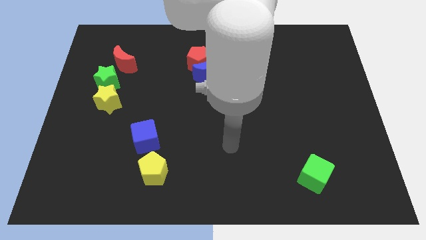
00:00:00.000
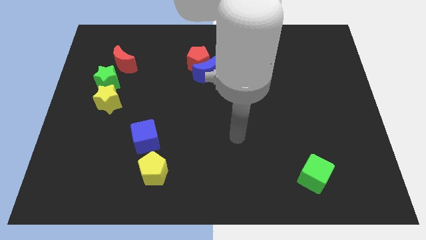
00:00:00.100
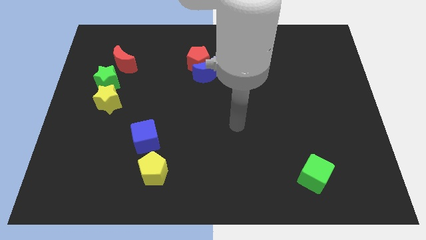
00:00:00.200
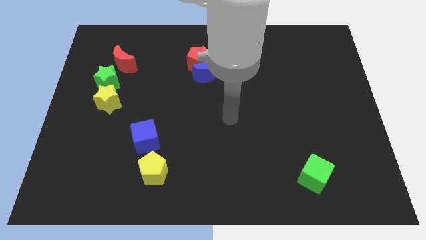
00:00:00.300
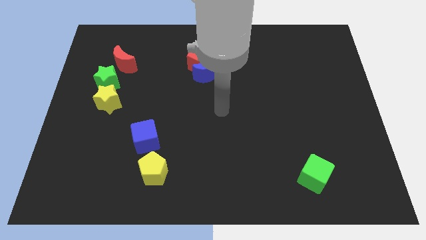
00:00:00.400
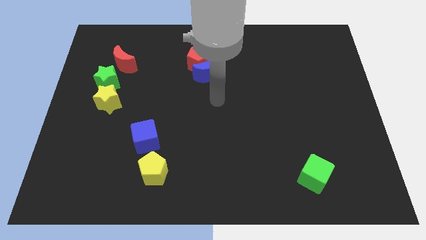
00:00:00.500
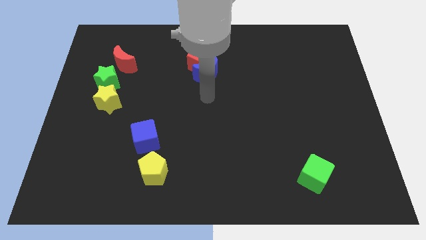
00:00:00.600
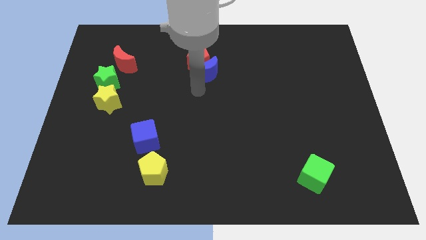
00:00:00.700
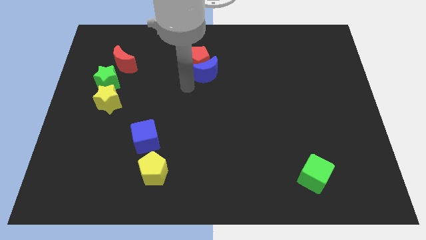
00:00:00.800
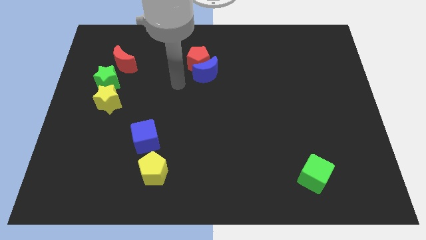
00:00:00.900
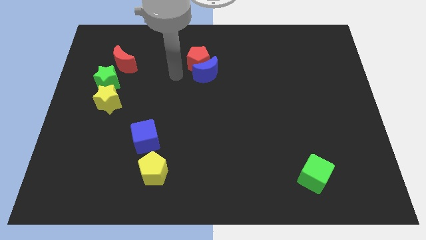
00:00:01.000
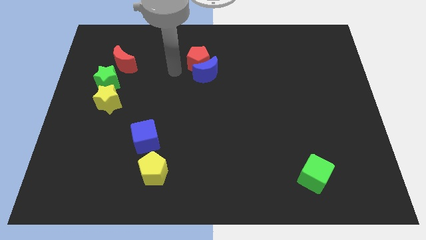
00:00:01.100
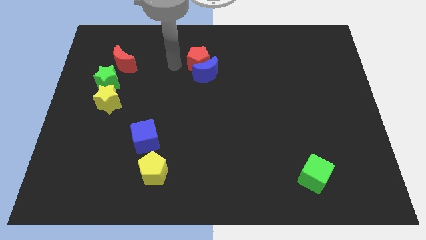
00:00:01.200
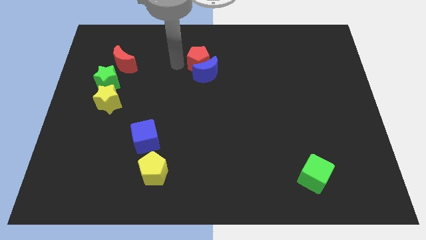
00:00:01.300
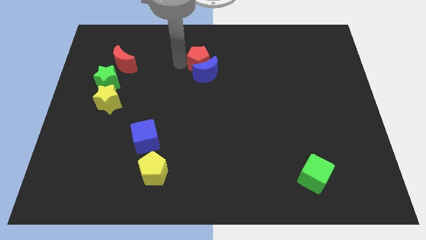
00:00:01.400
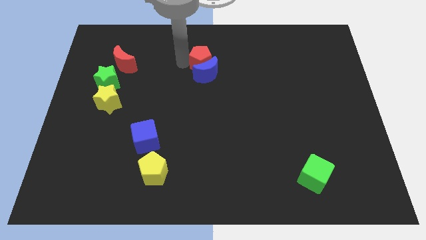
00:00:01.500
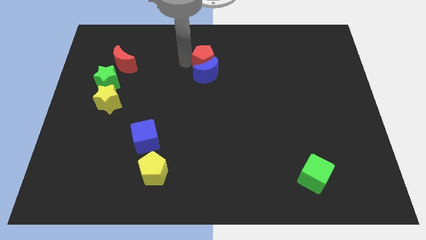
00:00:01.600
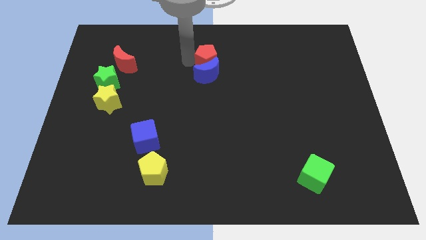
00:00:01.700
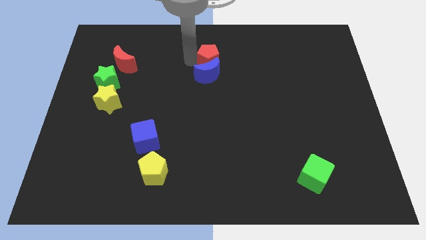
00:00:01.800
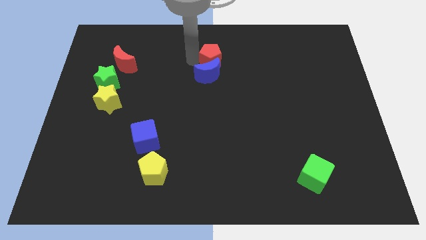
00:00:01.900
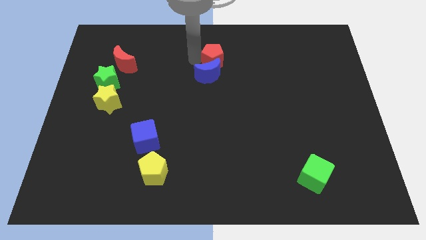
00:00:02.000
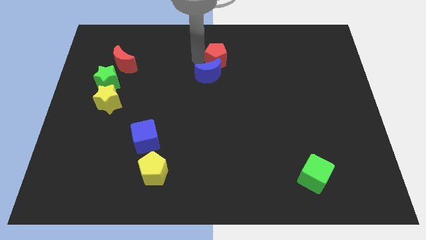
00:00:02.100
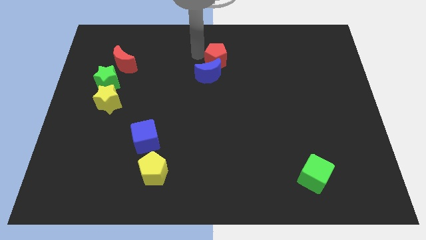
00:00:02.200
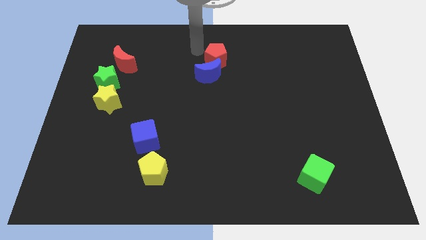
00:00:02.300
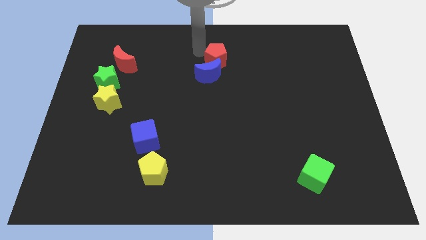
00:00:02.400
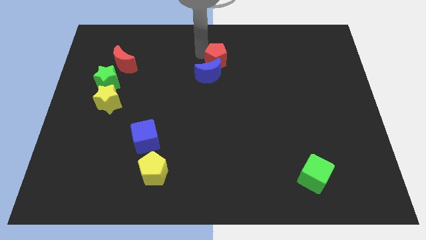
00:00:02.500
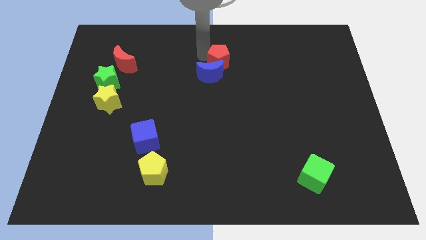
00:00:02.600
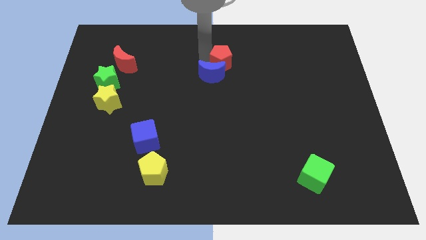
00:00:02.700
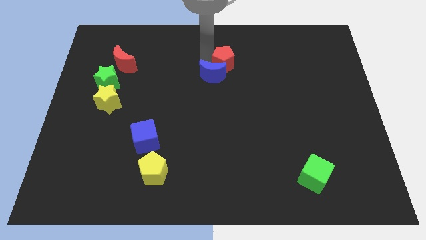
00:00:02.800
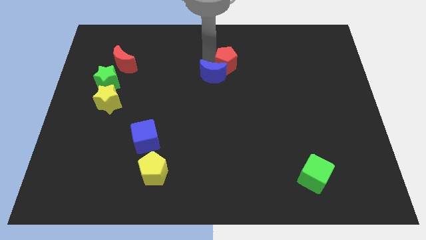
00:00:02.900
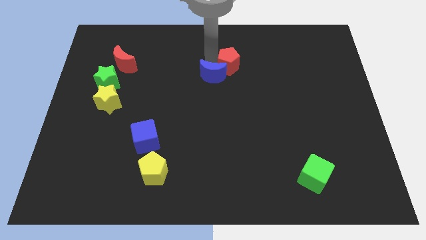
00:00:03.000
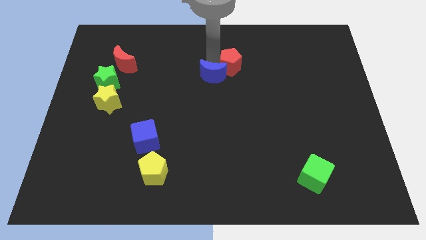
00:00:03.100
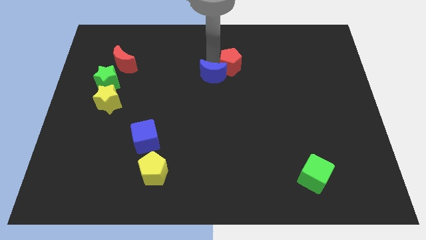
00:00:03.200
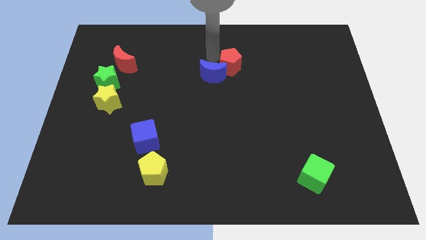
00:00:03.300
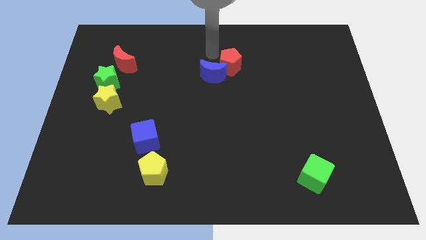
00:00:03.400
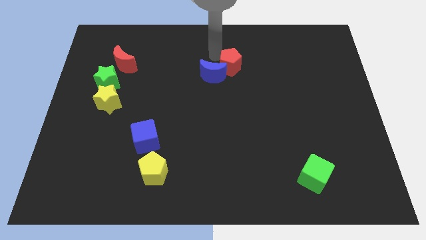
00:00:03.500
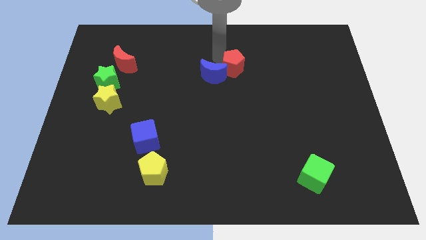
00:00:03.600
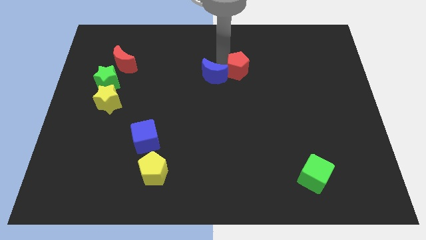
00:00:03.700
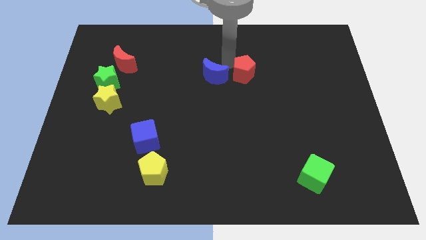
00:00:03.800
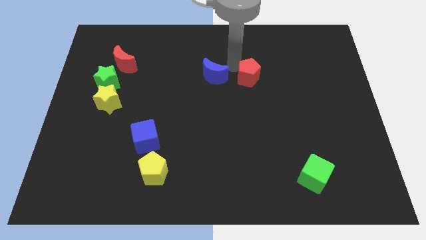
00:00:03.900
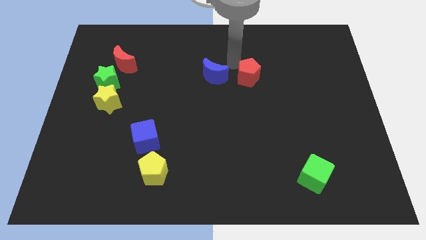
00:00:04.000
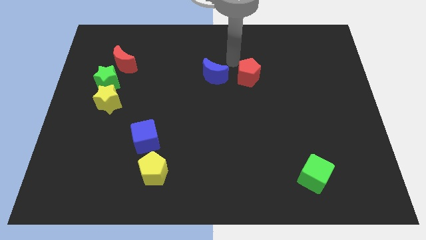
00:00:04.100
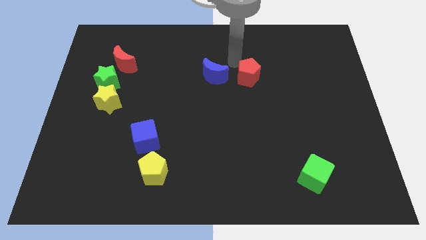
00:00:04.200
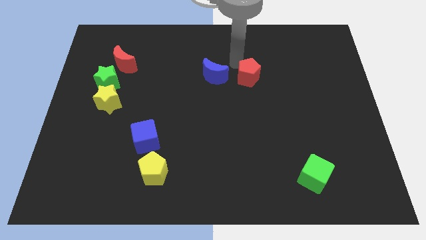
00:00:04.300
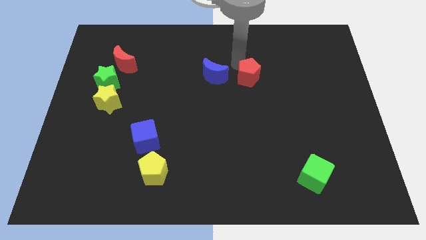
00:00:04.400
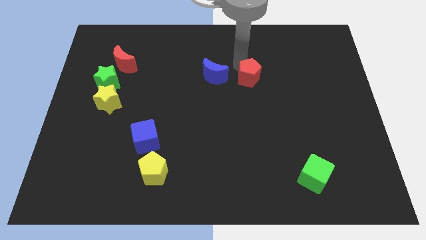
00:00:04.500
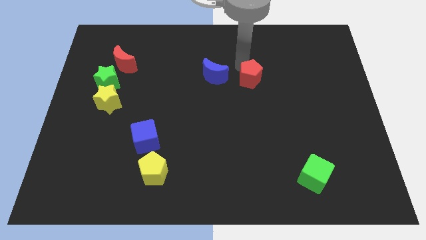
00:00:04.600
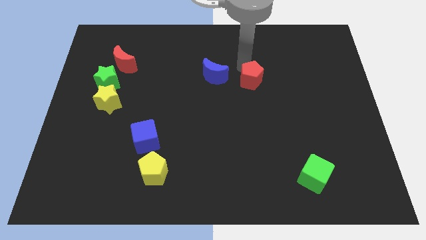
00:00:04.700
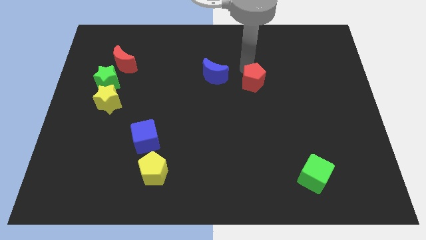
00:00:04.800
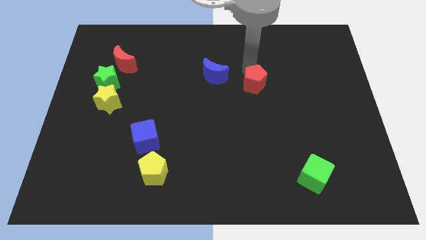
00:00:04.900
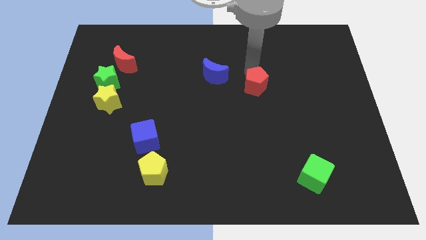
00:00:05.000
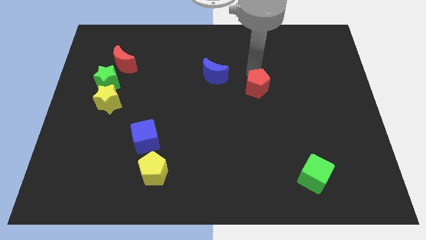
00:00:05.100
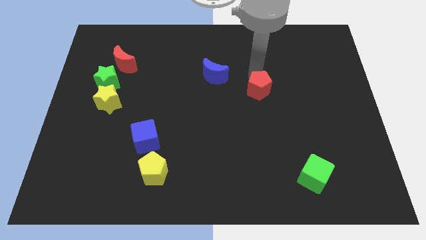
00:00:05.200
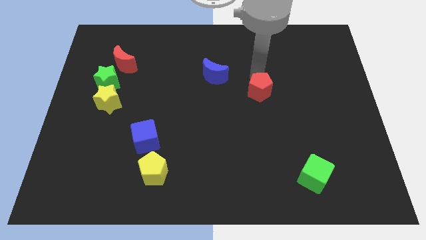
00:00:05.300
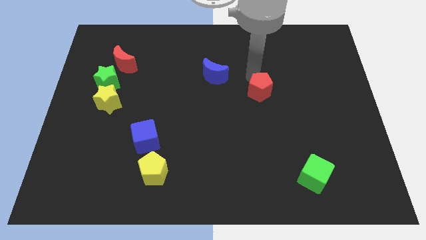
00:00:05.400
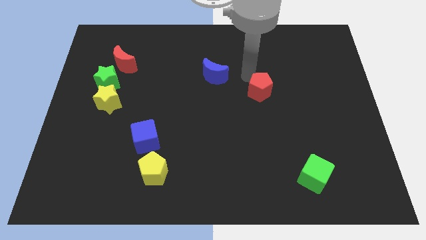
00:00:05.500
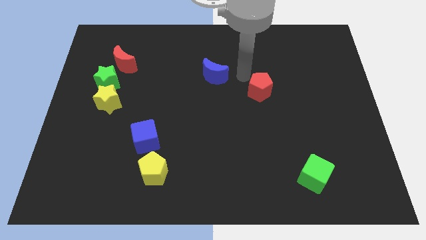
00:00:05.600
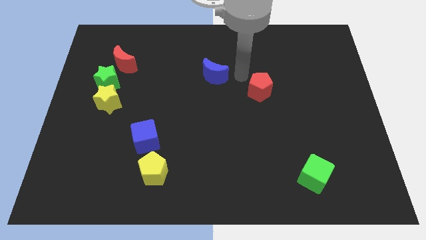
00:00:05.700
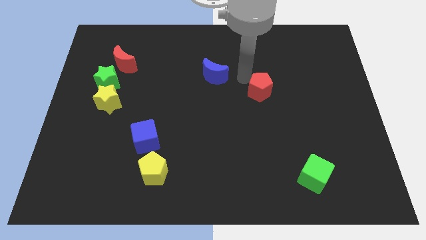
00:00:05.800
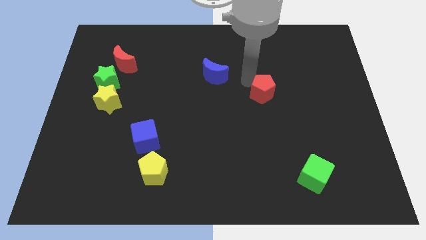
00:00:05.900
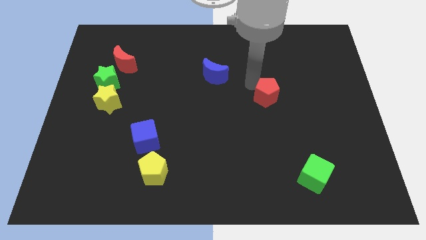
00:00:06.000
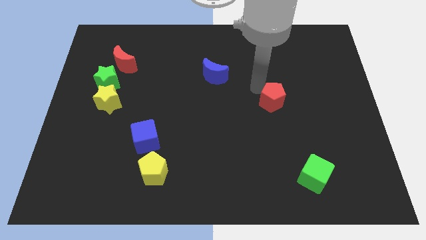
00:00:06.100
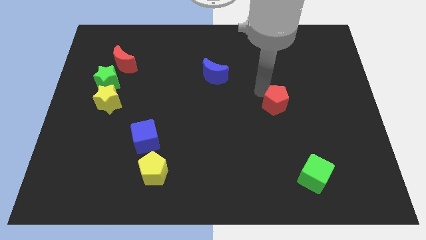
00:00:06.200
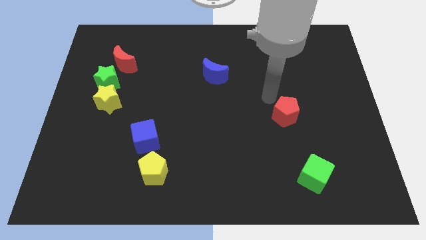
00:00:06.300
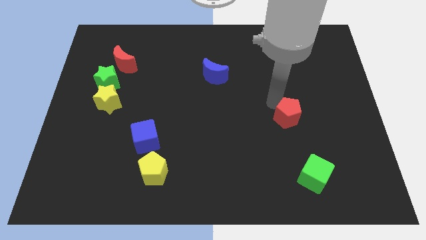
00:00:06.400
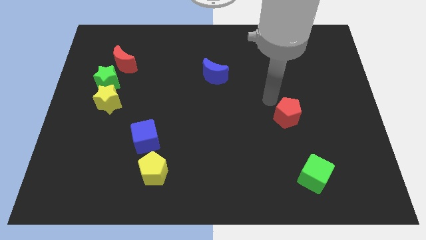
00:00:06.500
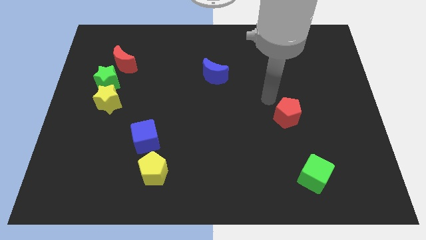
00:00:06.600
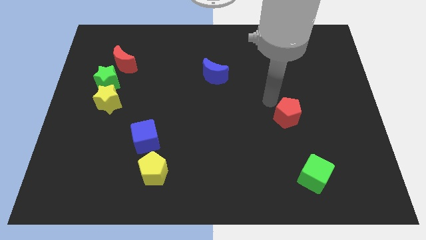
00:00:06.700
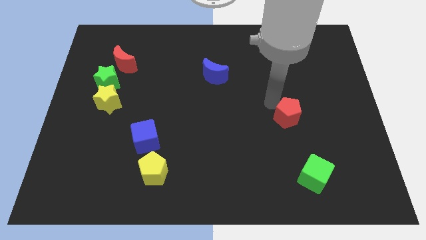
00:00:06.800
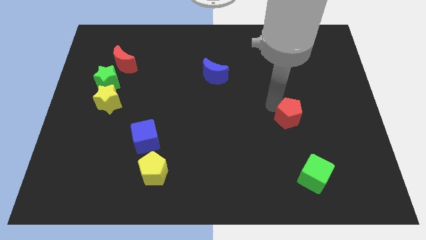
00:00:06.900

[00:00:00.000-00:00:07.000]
slide the red pentagon to the top side of the green cube
